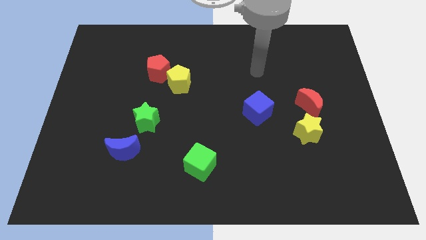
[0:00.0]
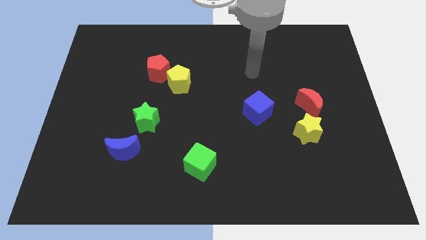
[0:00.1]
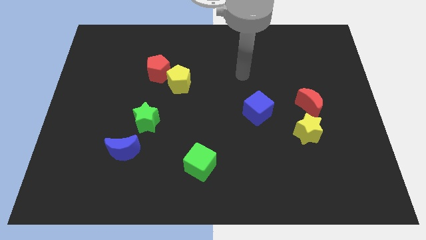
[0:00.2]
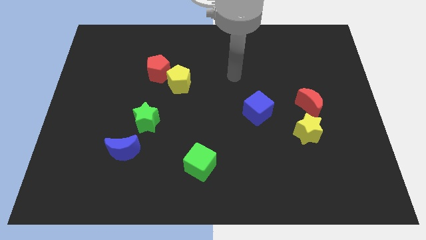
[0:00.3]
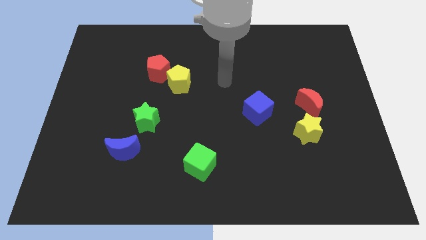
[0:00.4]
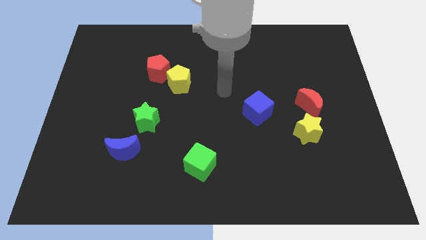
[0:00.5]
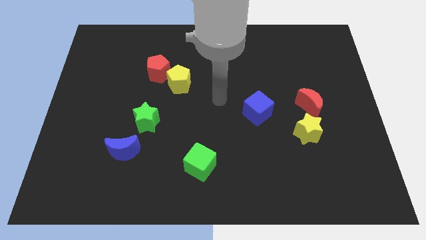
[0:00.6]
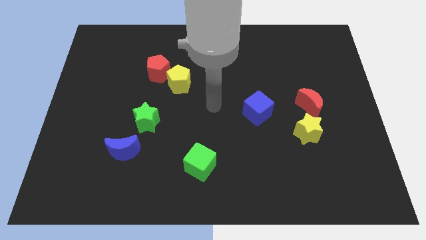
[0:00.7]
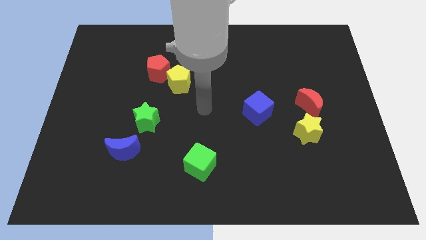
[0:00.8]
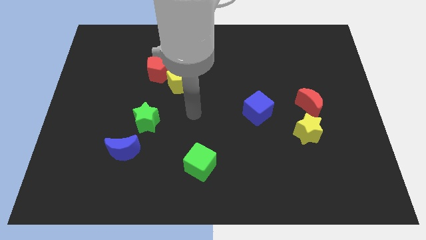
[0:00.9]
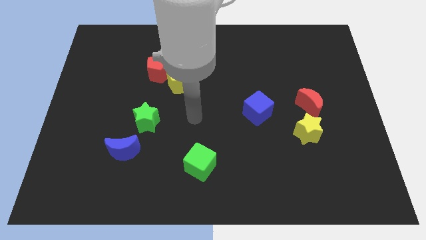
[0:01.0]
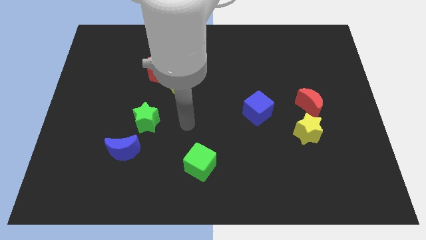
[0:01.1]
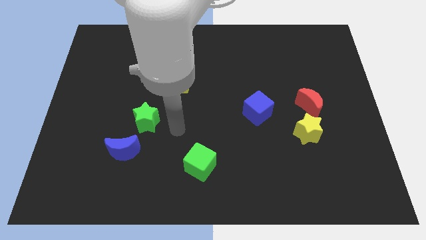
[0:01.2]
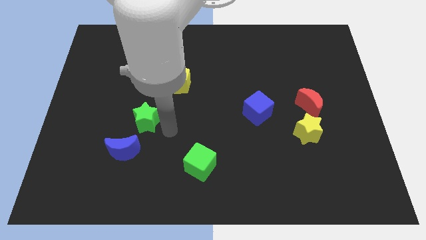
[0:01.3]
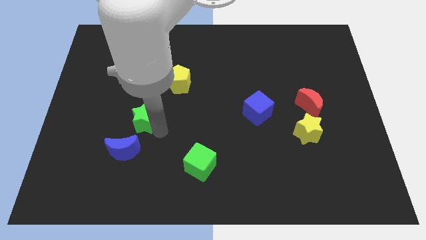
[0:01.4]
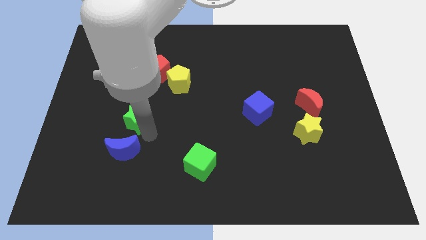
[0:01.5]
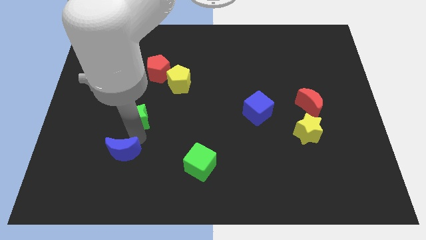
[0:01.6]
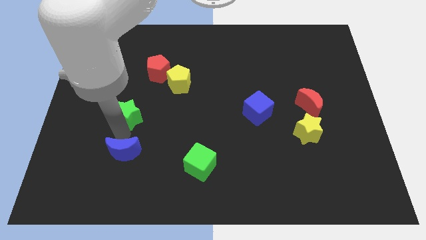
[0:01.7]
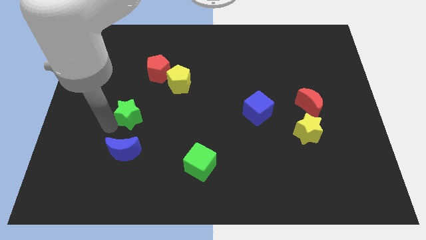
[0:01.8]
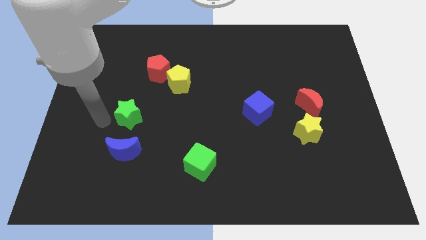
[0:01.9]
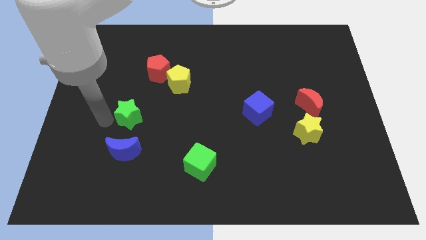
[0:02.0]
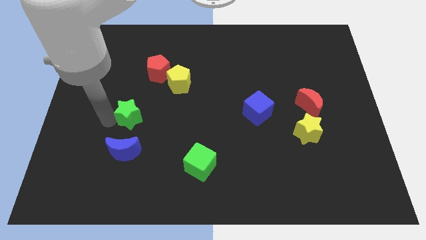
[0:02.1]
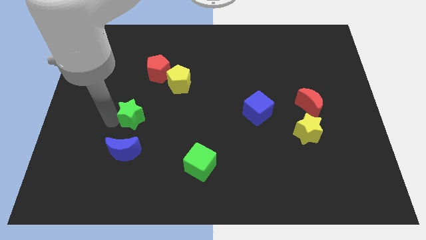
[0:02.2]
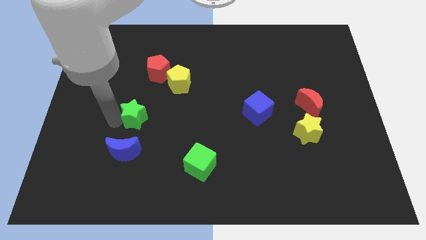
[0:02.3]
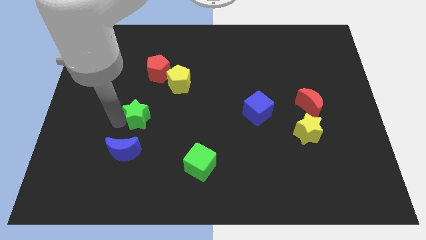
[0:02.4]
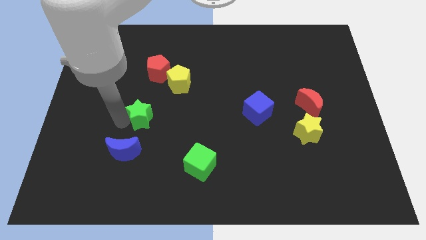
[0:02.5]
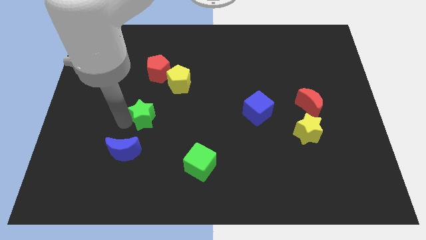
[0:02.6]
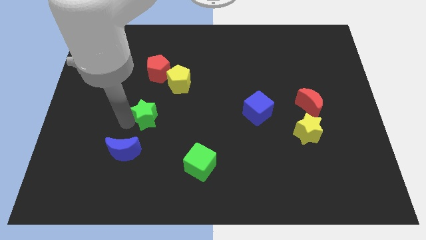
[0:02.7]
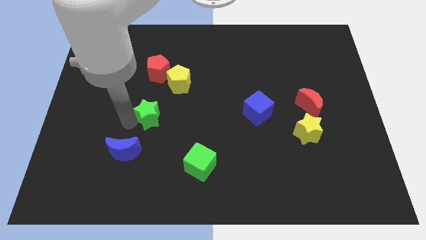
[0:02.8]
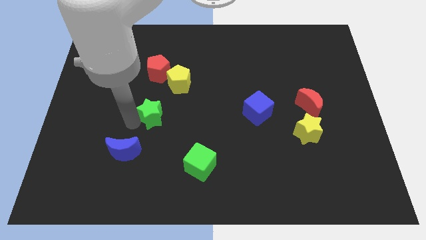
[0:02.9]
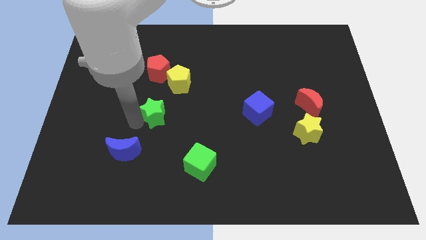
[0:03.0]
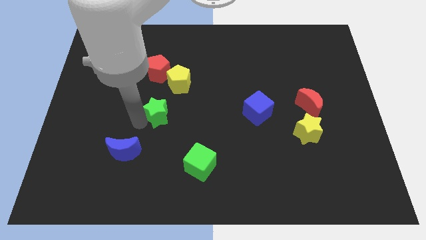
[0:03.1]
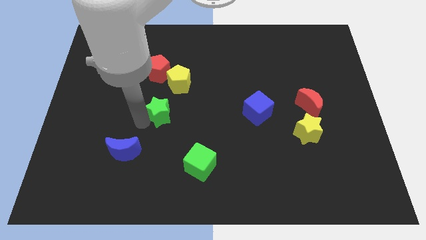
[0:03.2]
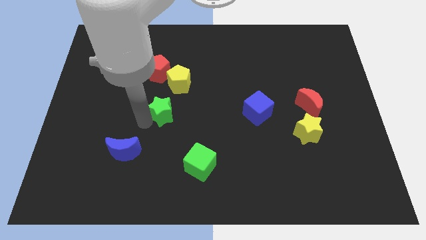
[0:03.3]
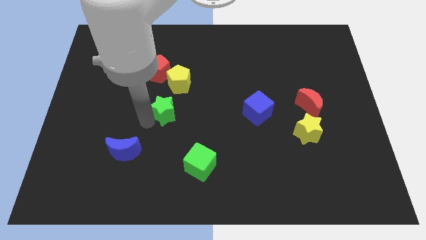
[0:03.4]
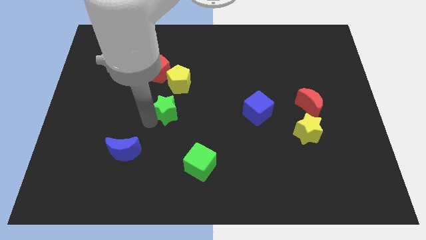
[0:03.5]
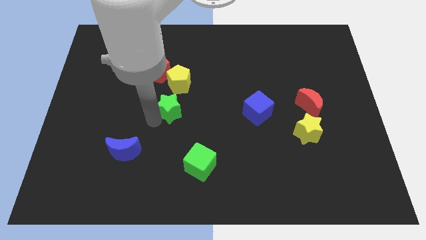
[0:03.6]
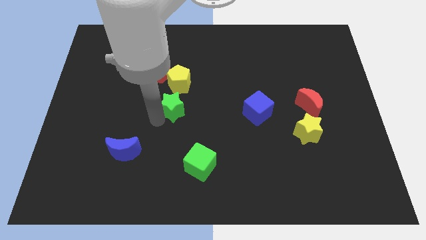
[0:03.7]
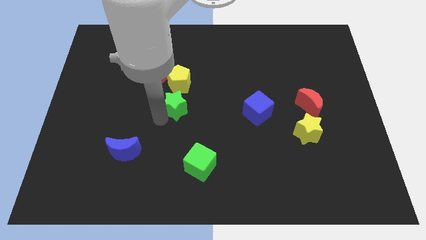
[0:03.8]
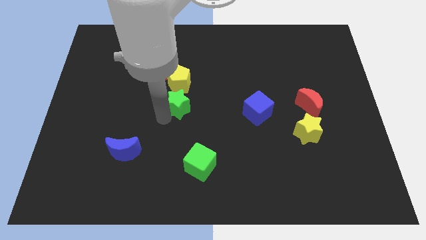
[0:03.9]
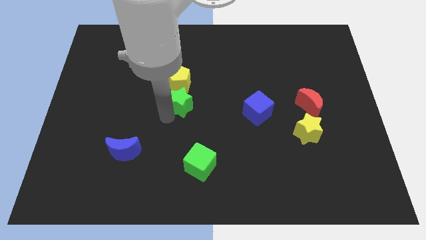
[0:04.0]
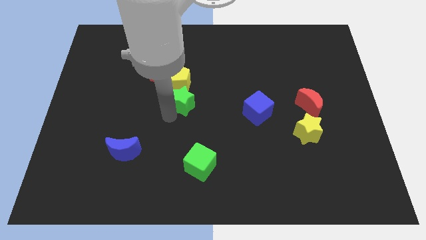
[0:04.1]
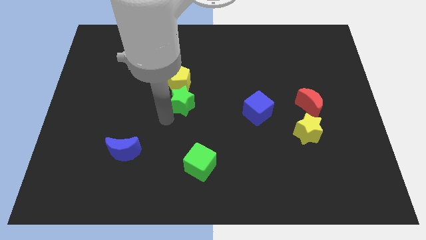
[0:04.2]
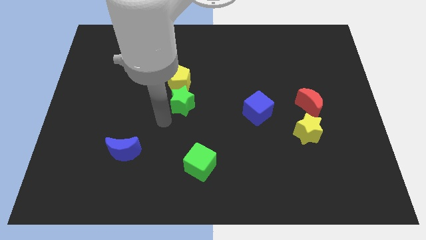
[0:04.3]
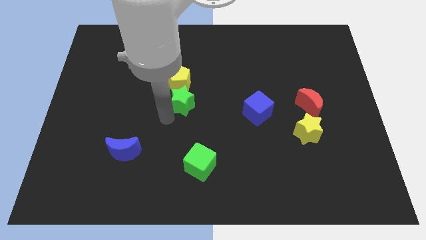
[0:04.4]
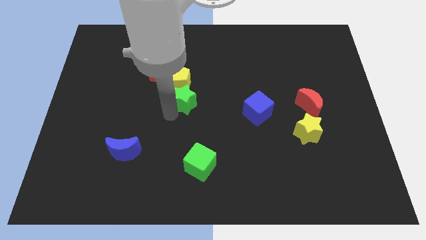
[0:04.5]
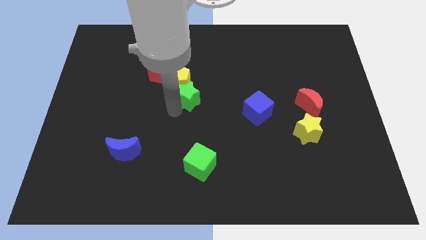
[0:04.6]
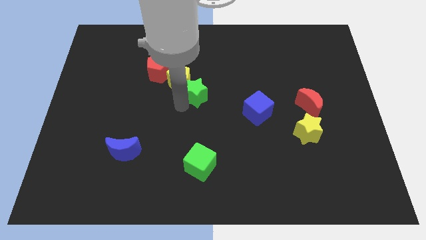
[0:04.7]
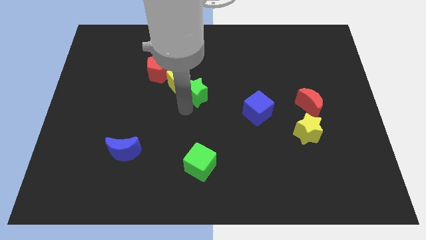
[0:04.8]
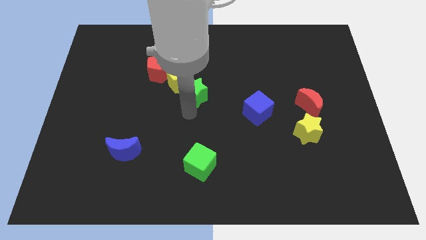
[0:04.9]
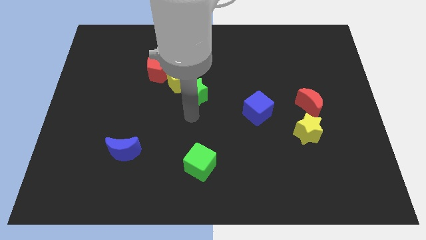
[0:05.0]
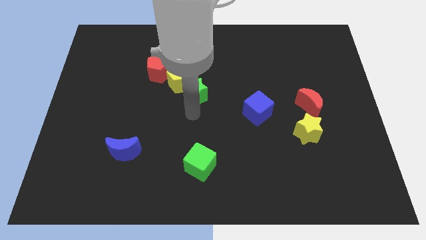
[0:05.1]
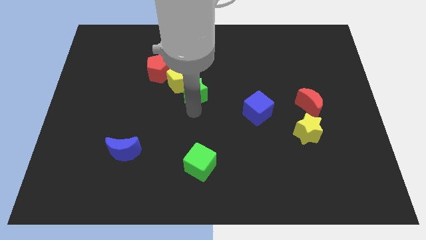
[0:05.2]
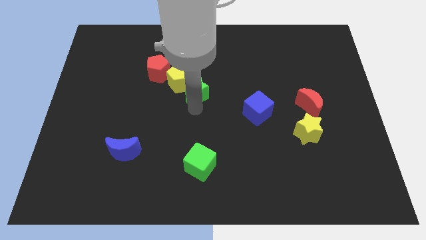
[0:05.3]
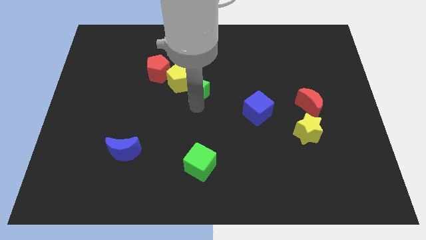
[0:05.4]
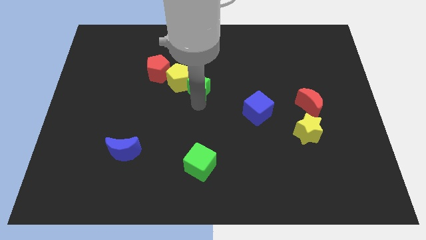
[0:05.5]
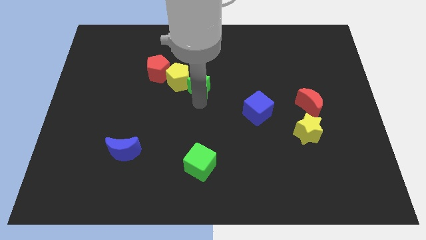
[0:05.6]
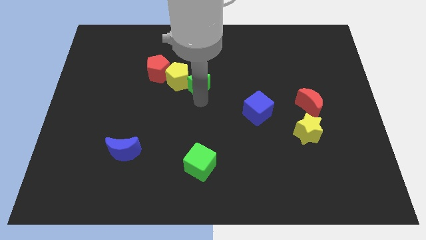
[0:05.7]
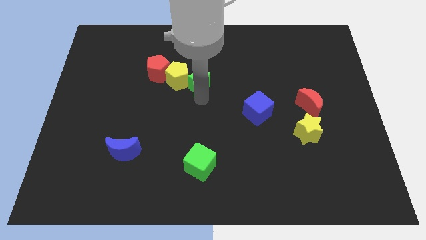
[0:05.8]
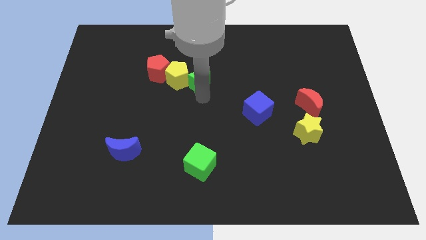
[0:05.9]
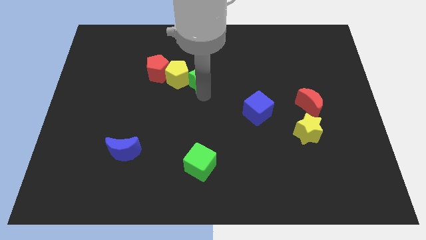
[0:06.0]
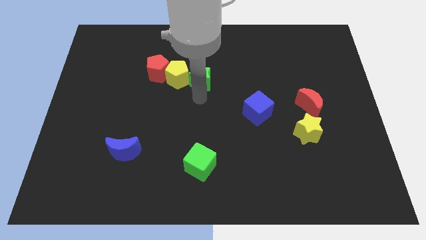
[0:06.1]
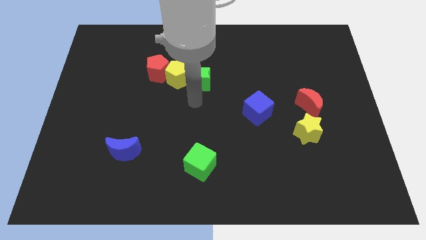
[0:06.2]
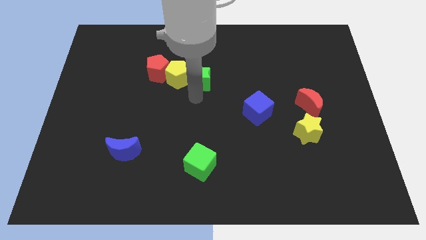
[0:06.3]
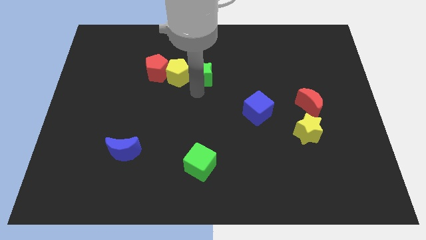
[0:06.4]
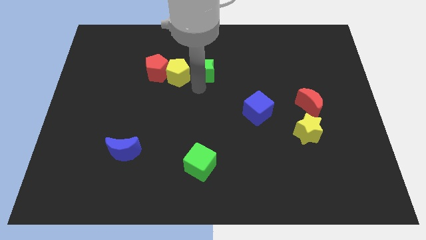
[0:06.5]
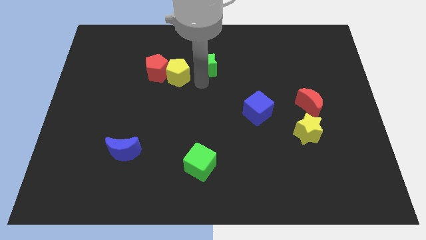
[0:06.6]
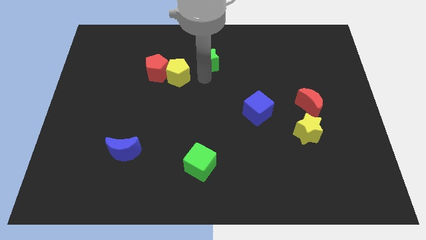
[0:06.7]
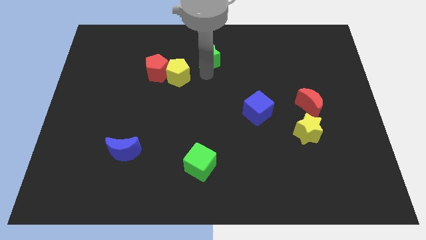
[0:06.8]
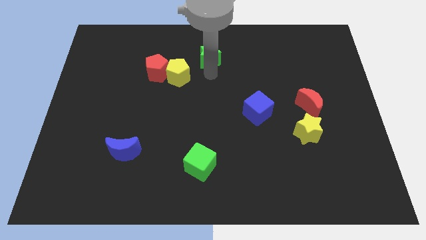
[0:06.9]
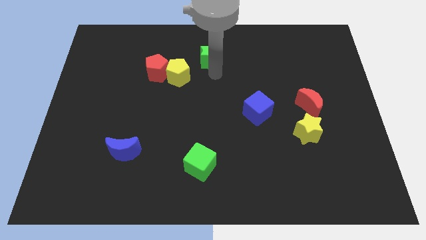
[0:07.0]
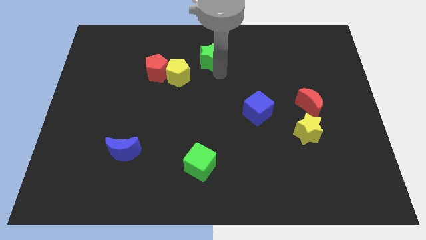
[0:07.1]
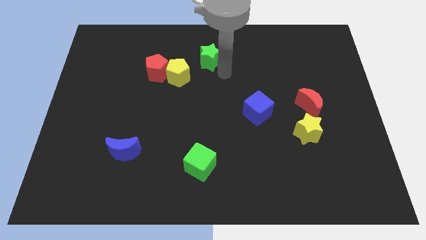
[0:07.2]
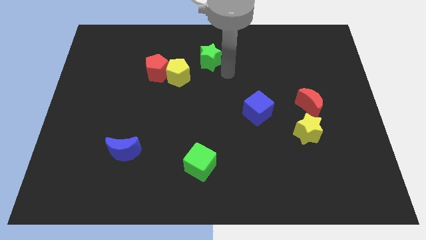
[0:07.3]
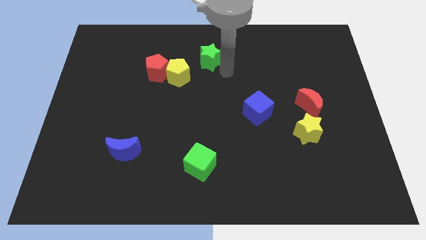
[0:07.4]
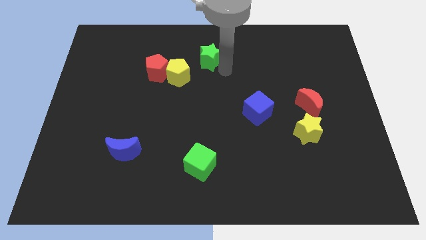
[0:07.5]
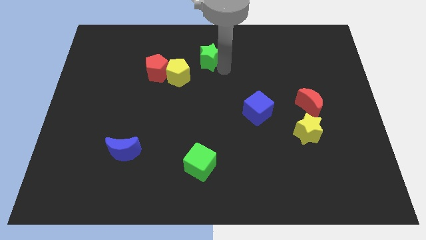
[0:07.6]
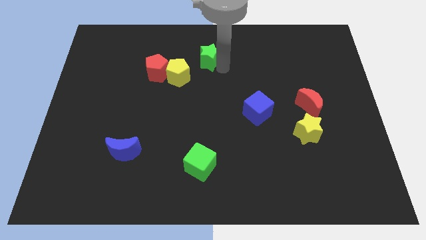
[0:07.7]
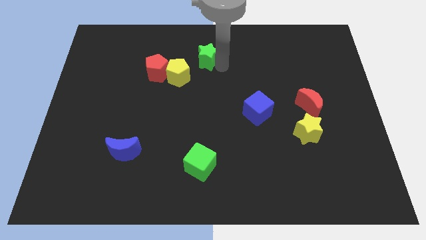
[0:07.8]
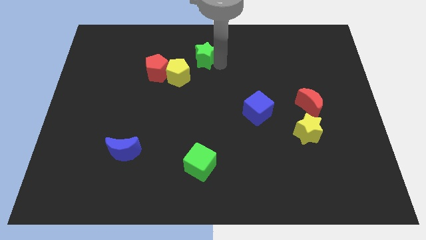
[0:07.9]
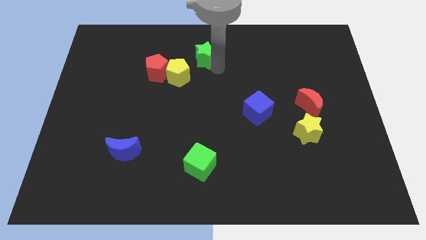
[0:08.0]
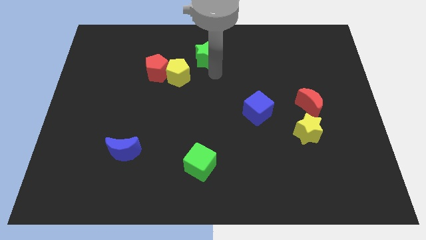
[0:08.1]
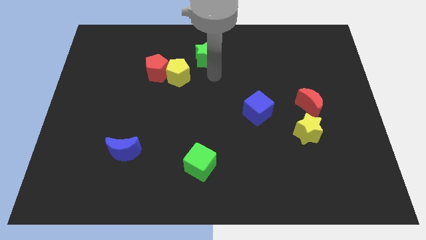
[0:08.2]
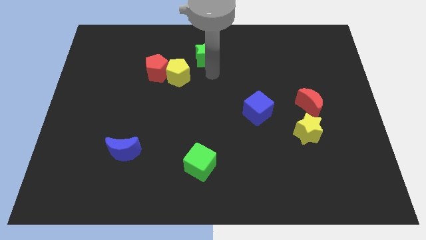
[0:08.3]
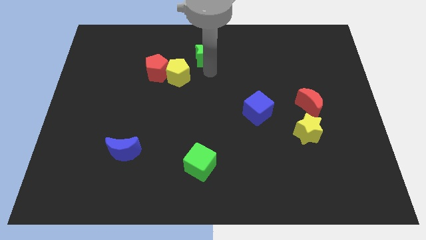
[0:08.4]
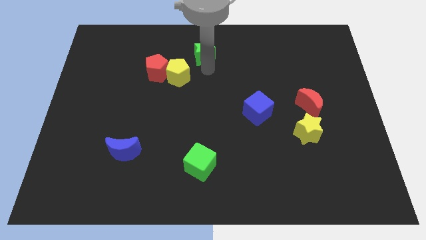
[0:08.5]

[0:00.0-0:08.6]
slide the green star to the top side
